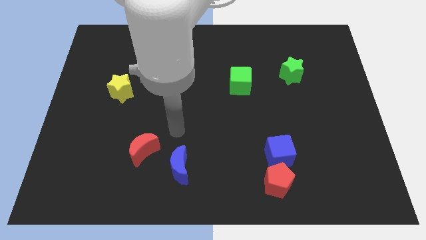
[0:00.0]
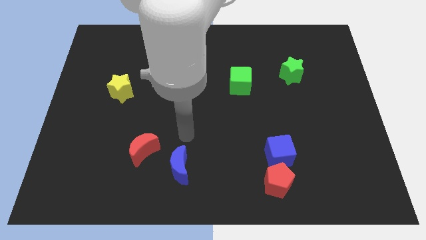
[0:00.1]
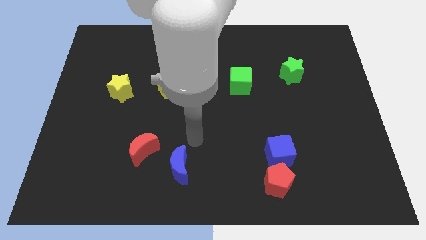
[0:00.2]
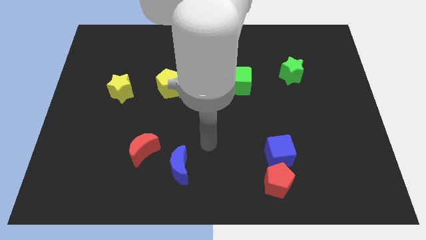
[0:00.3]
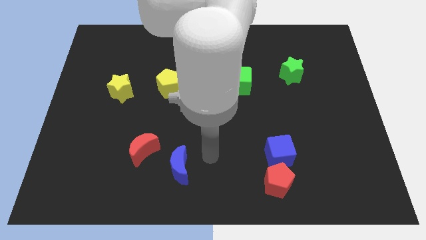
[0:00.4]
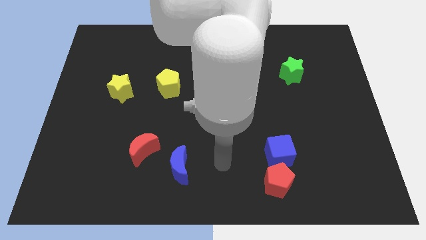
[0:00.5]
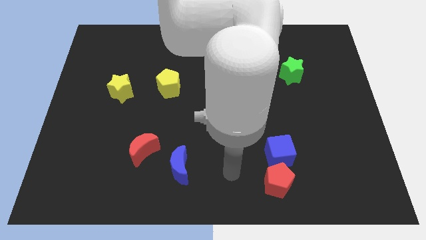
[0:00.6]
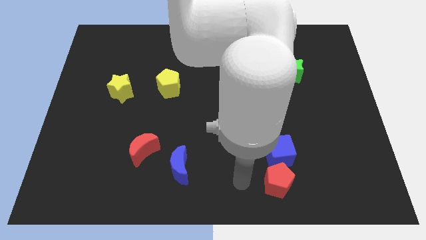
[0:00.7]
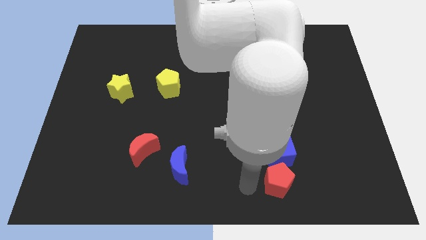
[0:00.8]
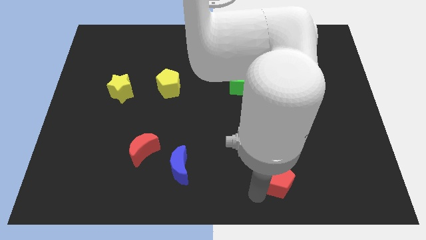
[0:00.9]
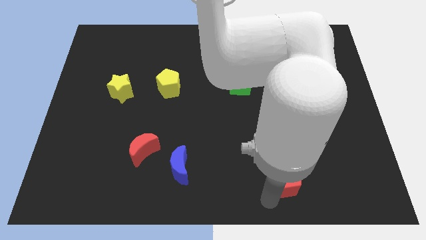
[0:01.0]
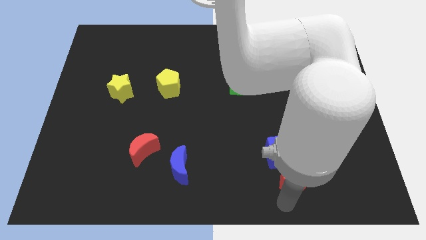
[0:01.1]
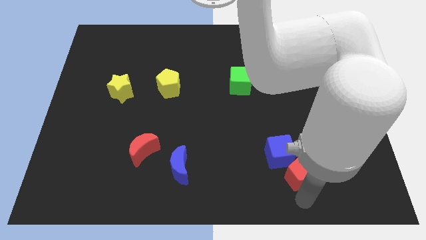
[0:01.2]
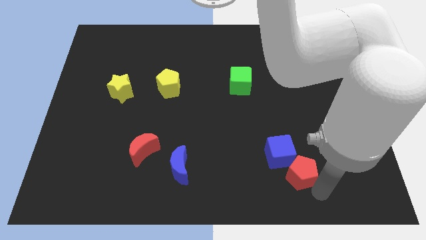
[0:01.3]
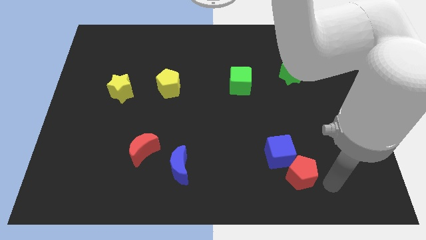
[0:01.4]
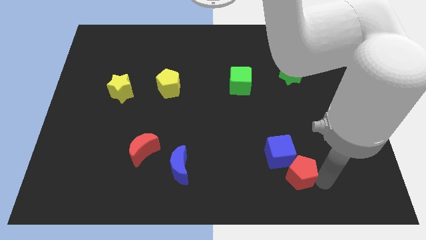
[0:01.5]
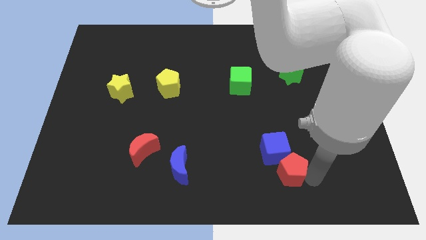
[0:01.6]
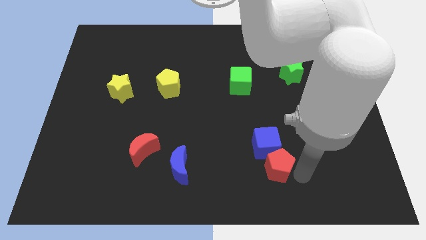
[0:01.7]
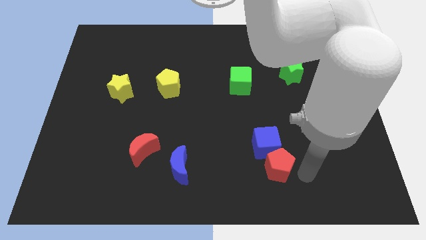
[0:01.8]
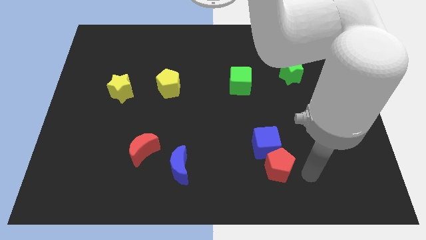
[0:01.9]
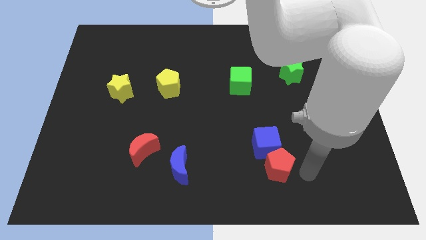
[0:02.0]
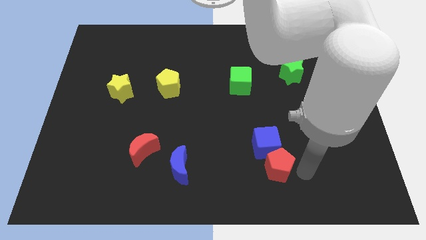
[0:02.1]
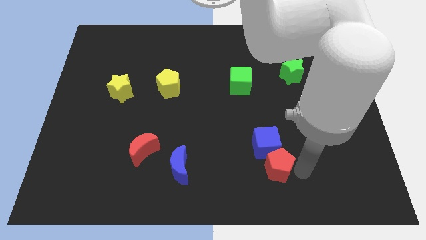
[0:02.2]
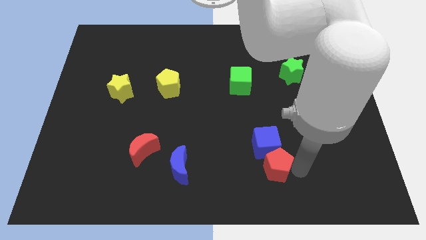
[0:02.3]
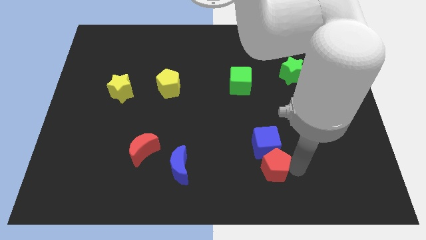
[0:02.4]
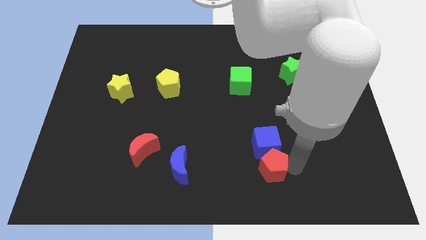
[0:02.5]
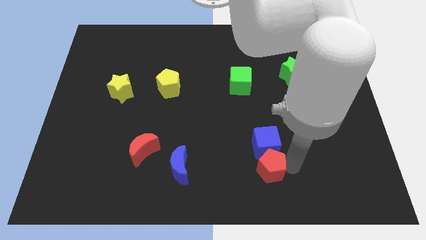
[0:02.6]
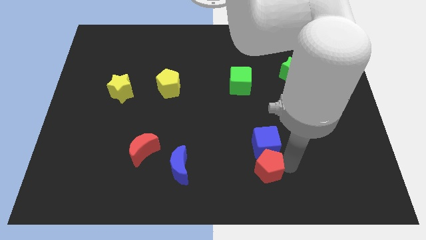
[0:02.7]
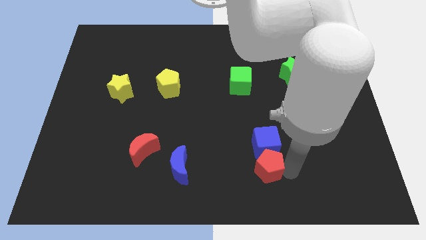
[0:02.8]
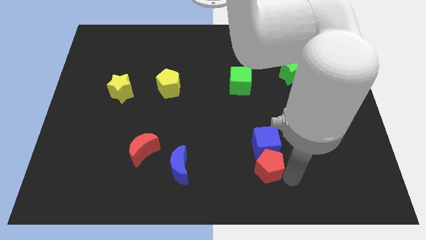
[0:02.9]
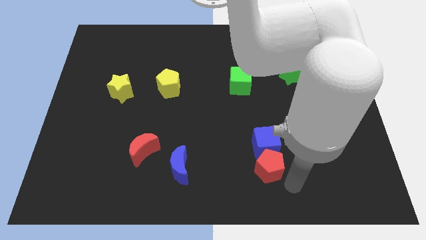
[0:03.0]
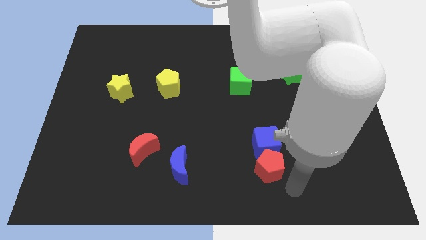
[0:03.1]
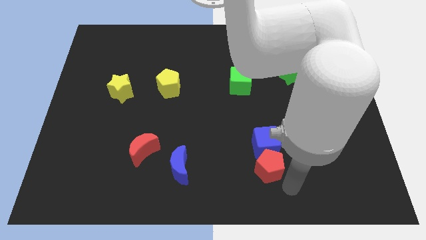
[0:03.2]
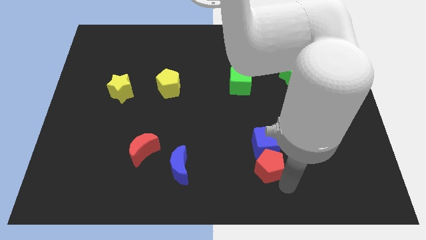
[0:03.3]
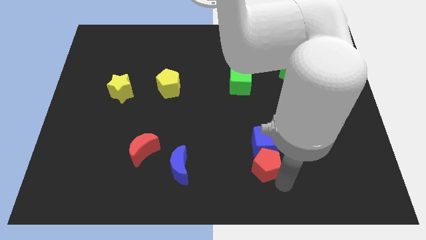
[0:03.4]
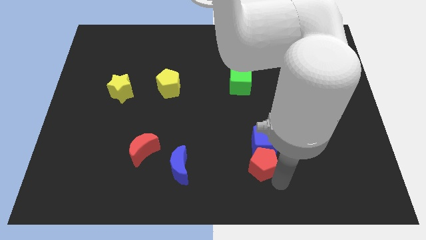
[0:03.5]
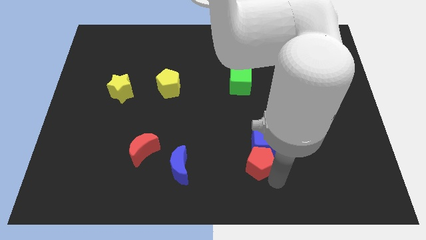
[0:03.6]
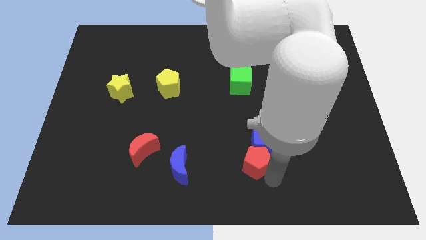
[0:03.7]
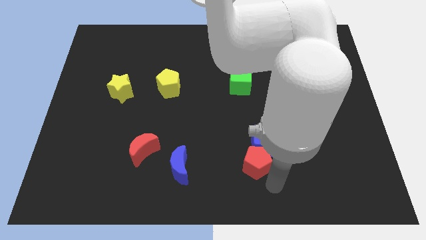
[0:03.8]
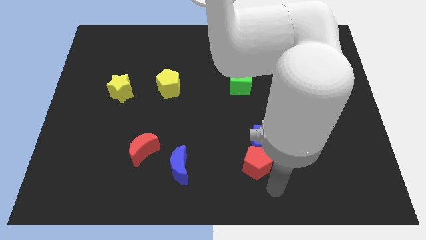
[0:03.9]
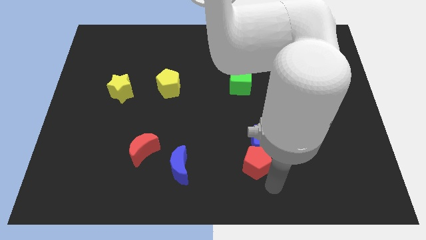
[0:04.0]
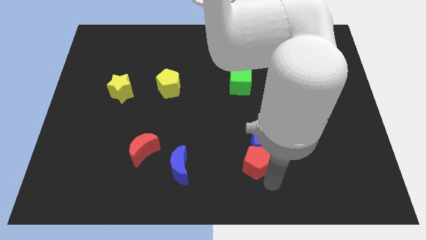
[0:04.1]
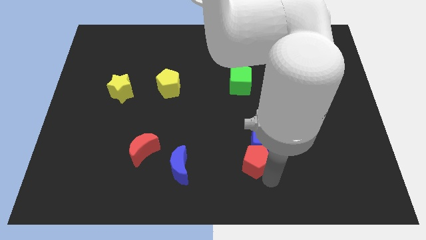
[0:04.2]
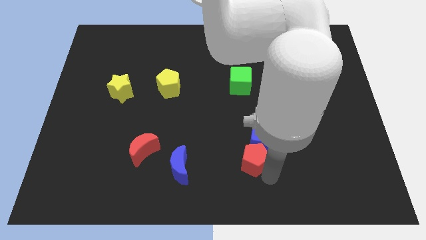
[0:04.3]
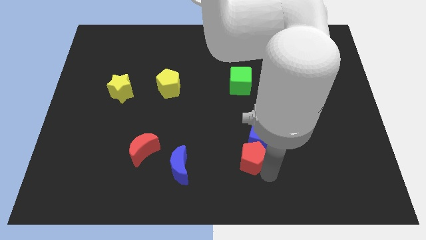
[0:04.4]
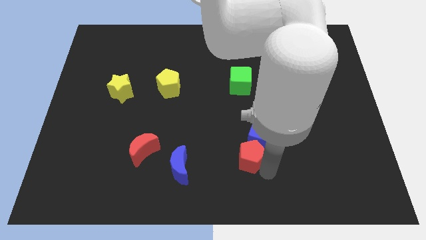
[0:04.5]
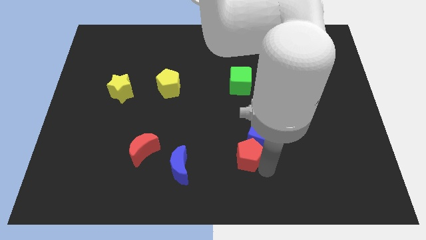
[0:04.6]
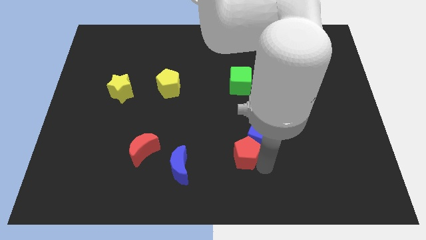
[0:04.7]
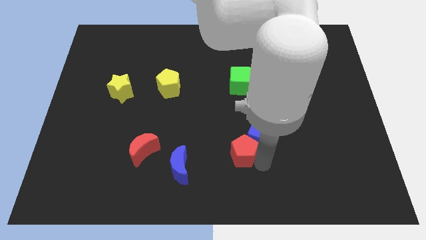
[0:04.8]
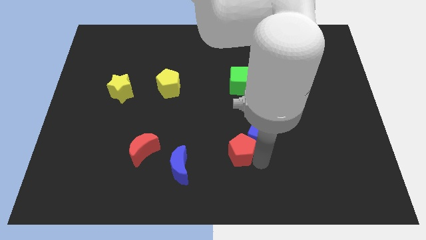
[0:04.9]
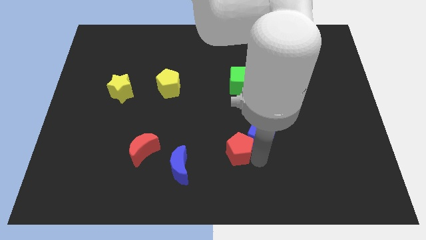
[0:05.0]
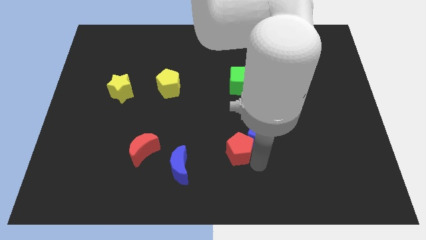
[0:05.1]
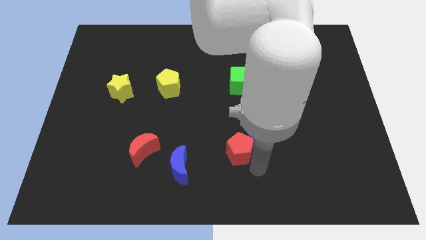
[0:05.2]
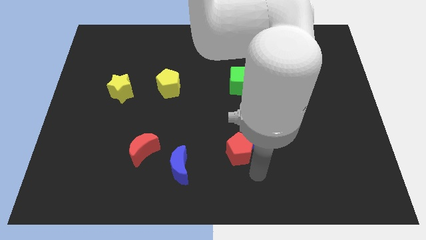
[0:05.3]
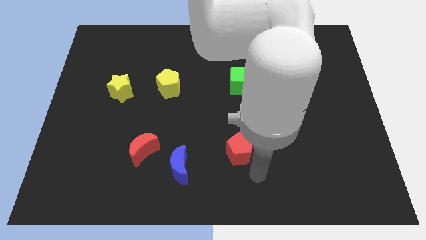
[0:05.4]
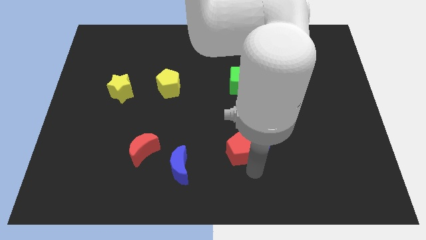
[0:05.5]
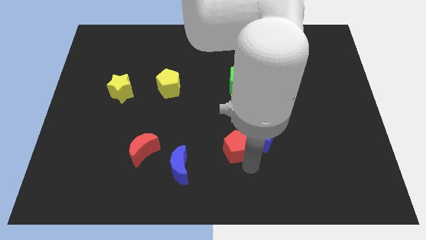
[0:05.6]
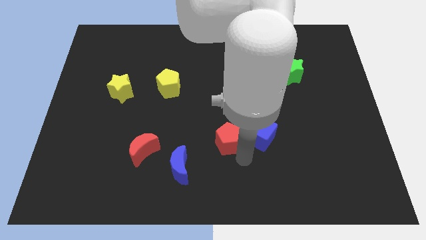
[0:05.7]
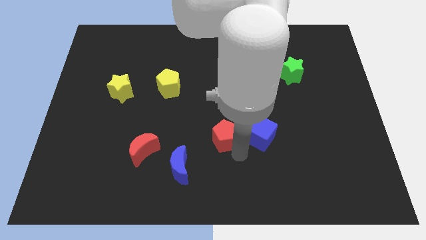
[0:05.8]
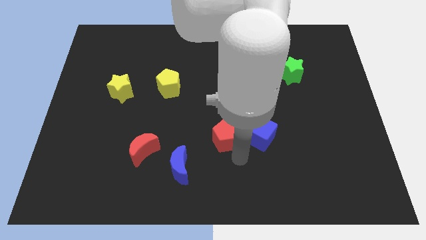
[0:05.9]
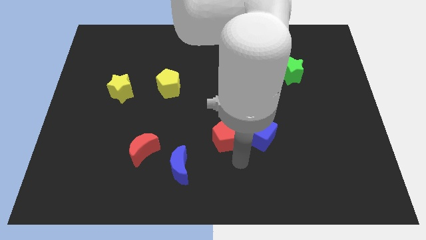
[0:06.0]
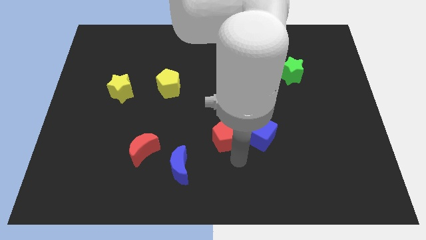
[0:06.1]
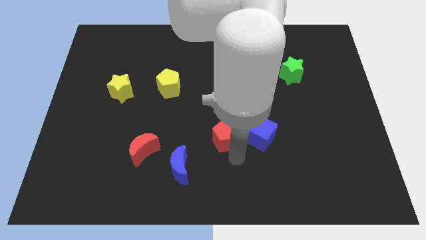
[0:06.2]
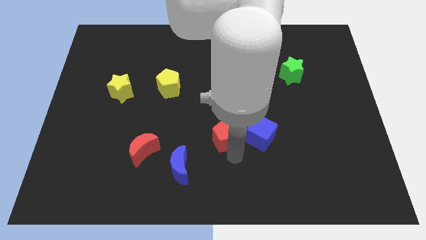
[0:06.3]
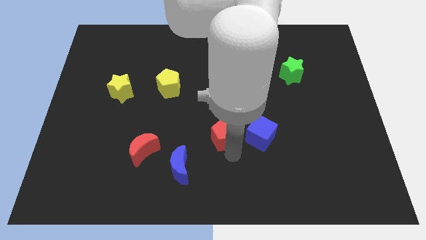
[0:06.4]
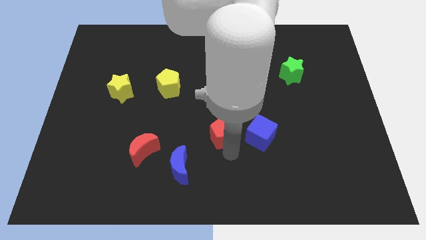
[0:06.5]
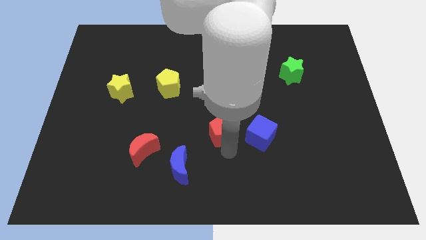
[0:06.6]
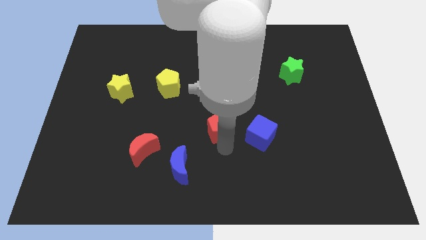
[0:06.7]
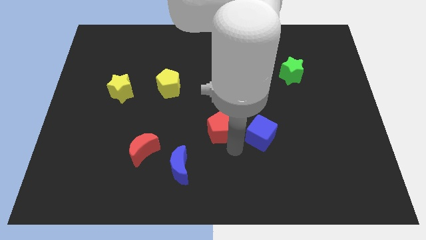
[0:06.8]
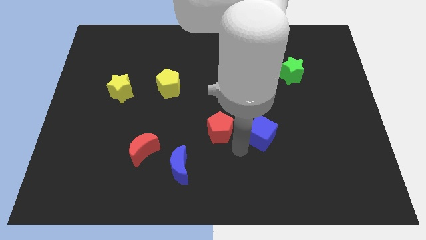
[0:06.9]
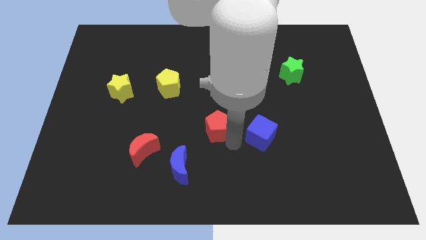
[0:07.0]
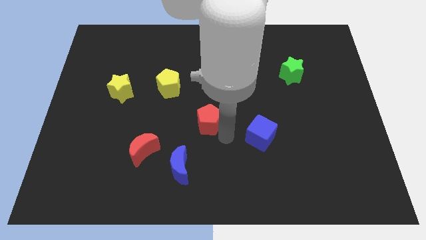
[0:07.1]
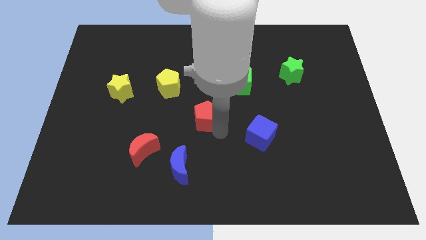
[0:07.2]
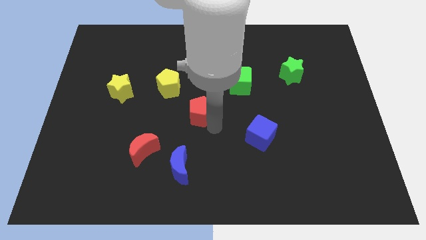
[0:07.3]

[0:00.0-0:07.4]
put the red pentagon to the bottom right side of the yellow pentagon
